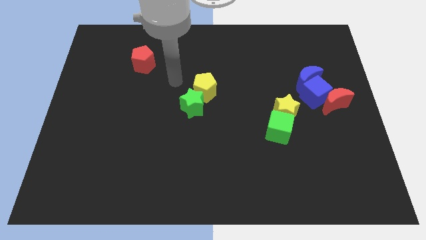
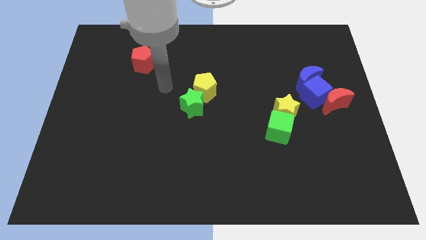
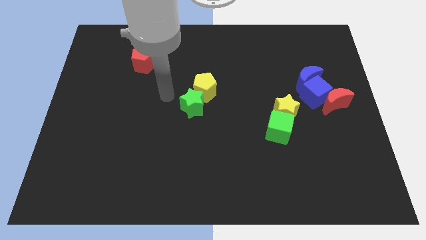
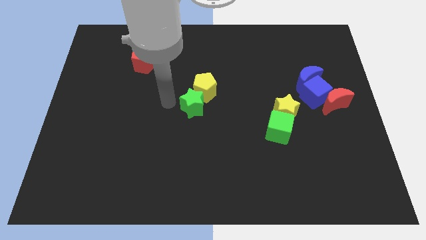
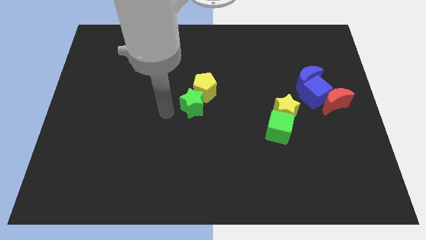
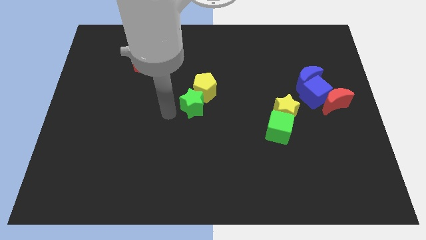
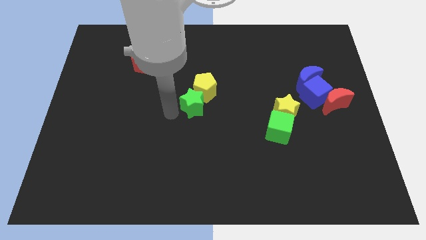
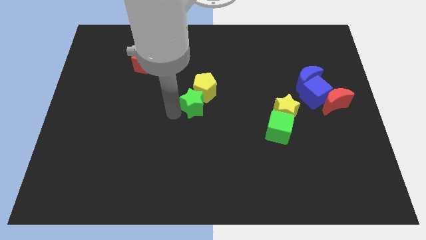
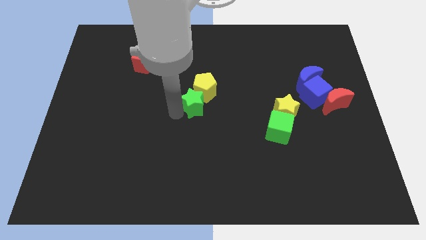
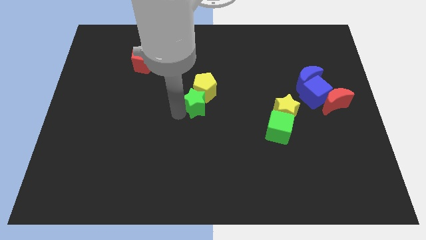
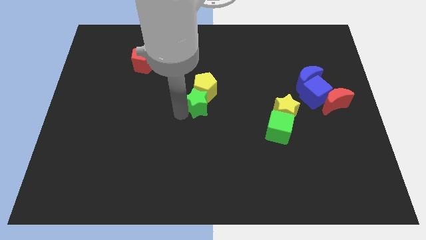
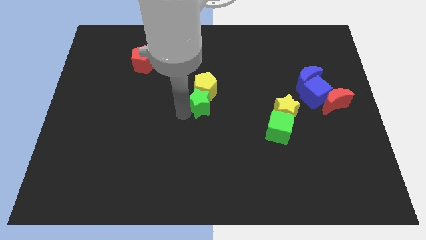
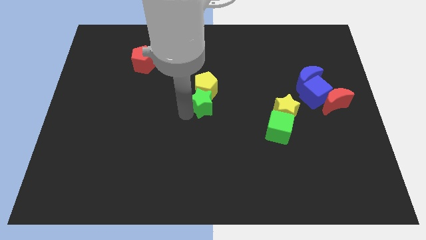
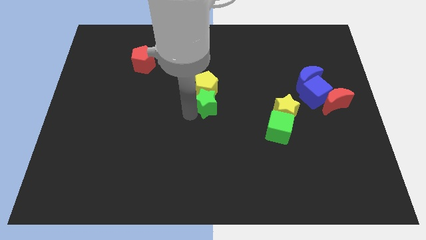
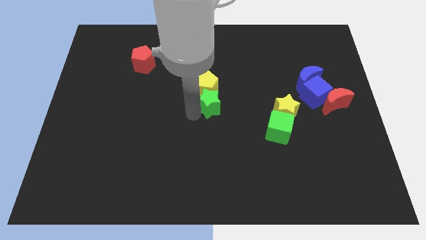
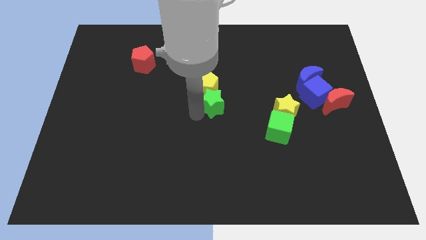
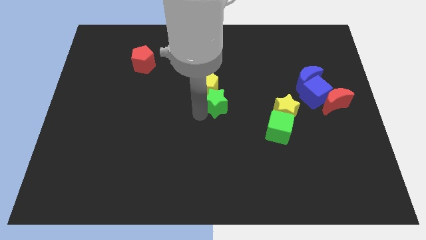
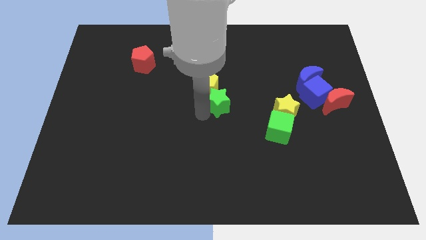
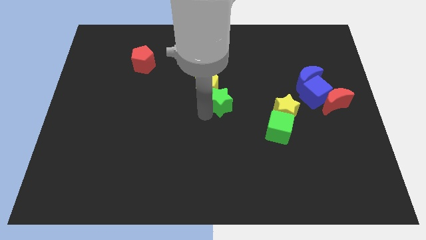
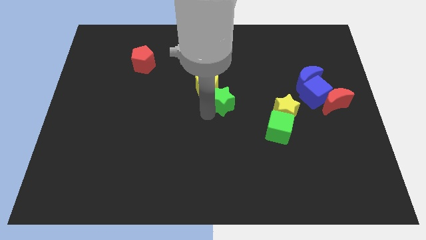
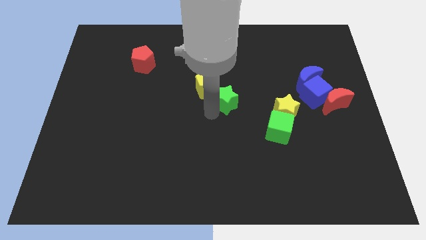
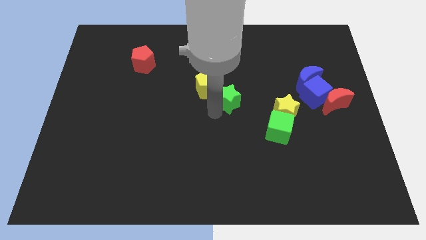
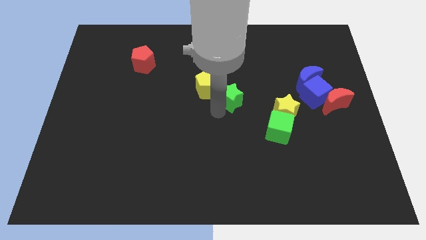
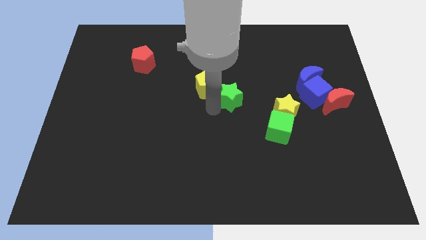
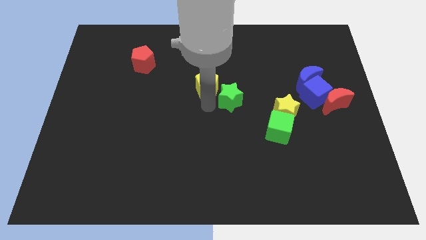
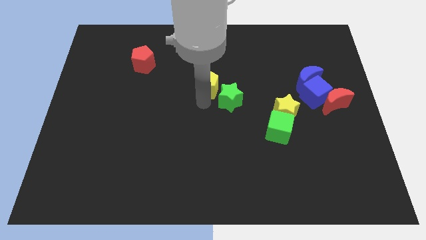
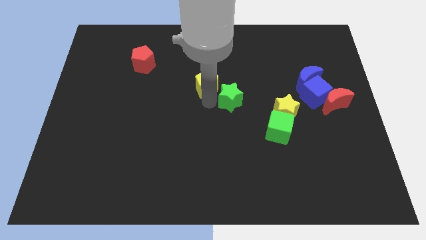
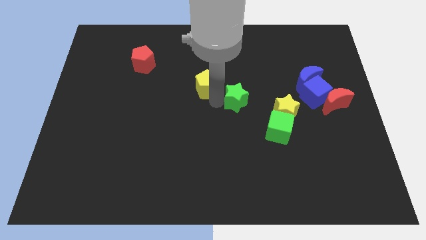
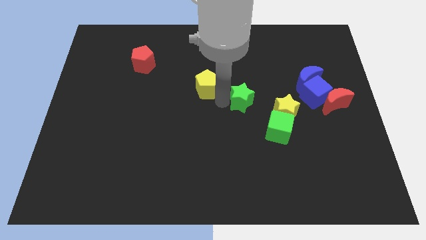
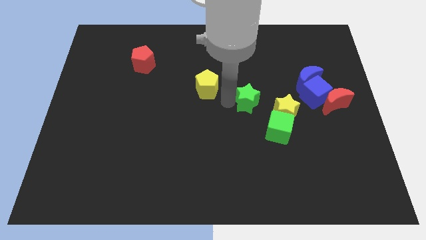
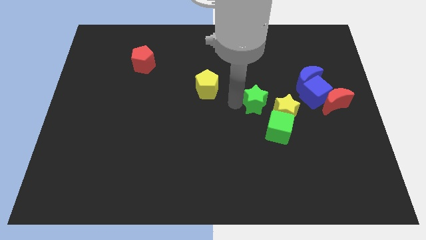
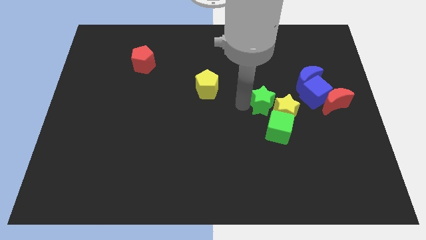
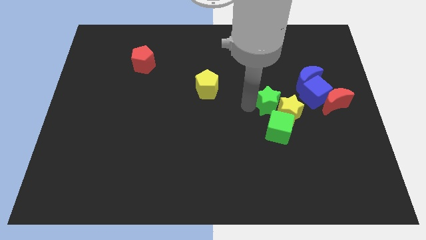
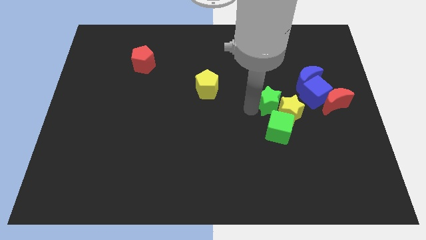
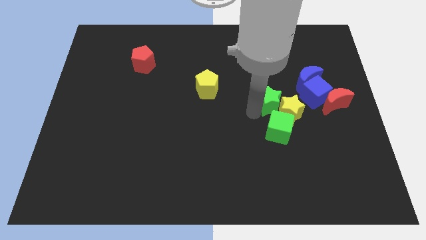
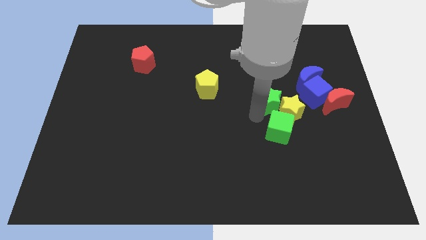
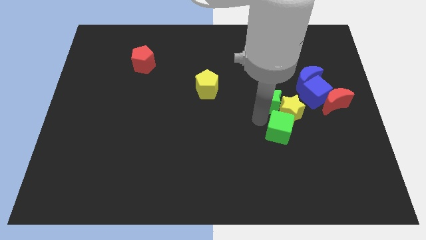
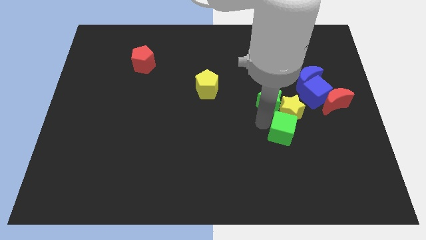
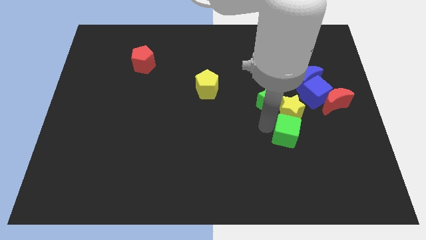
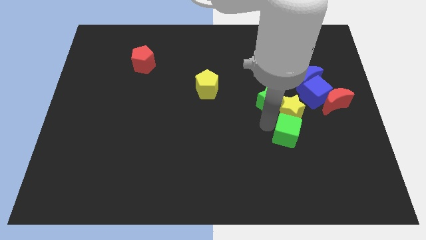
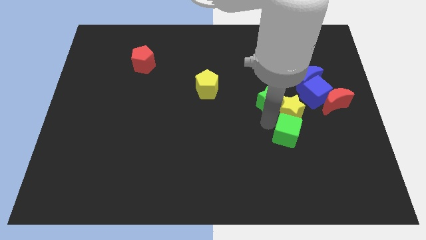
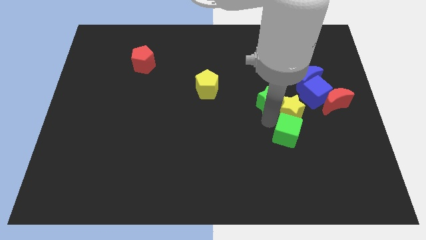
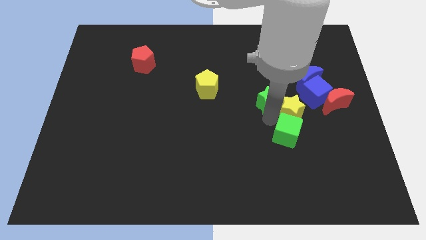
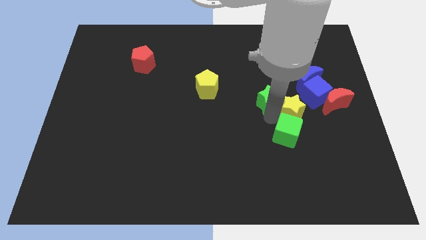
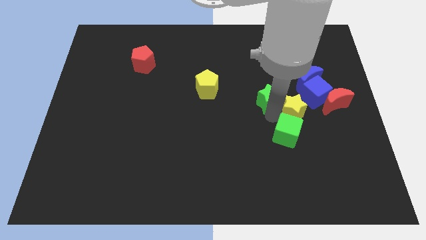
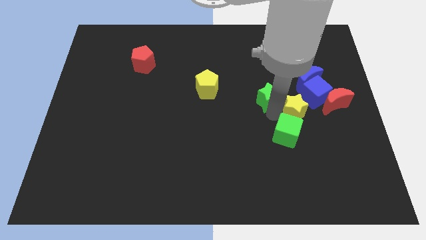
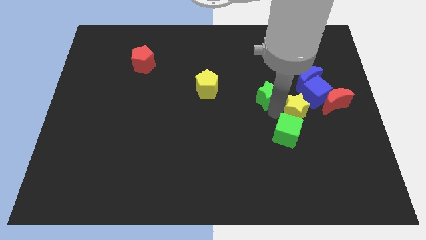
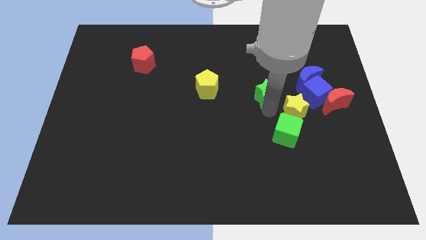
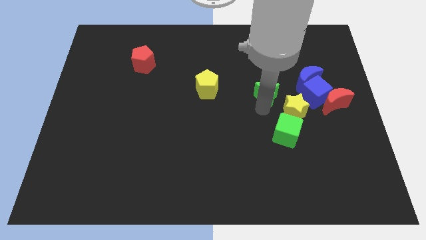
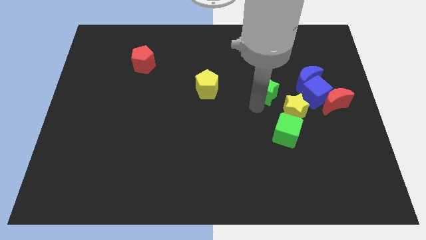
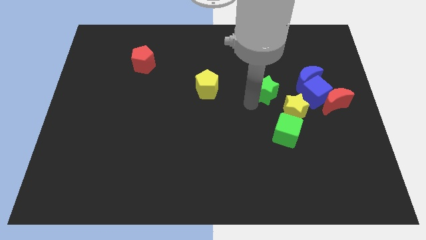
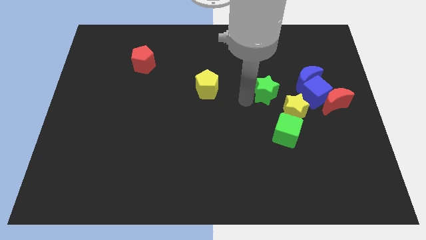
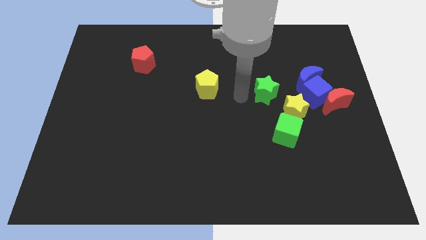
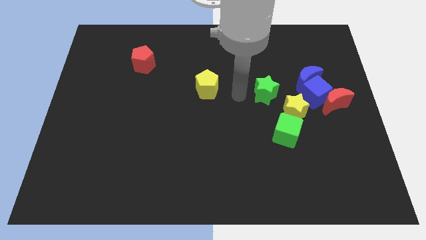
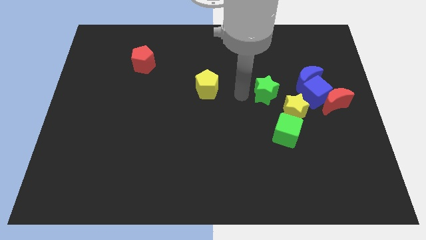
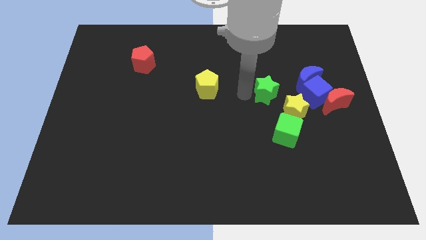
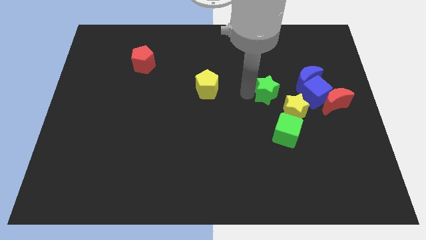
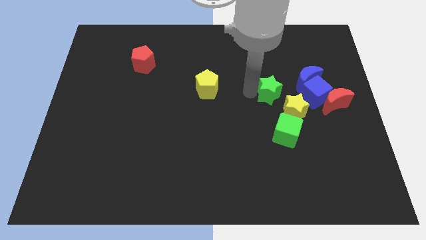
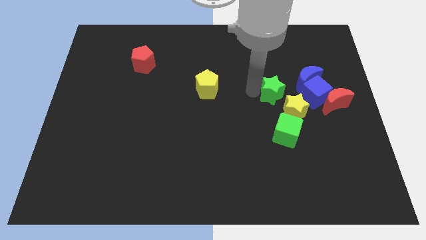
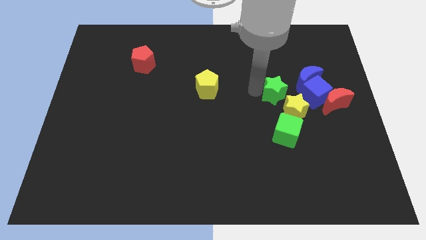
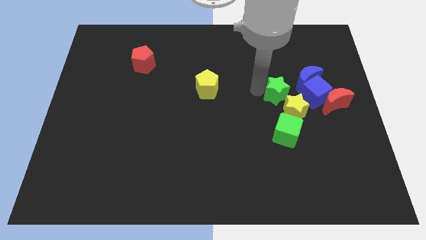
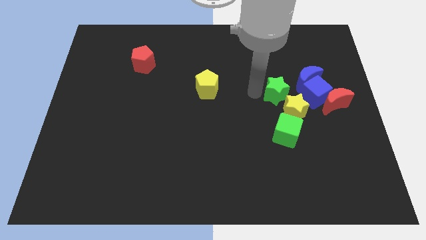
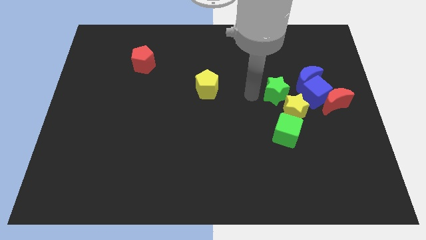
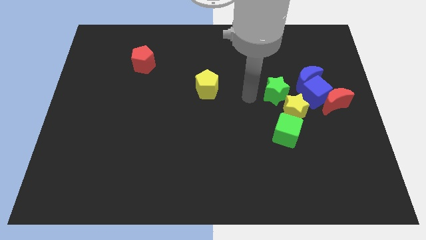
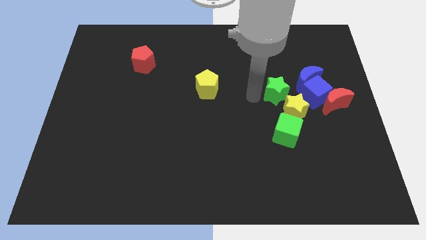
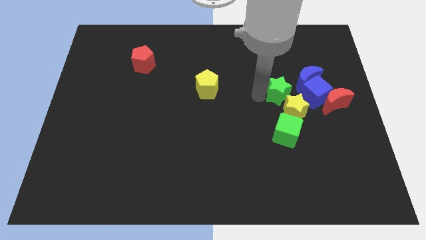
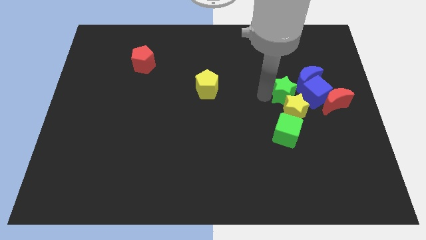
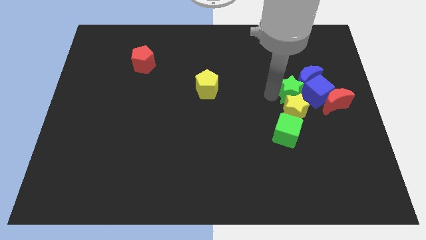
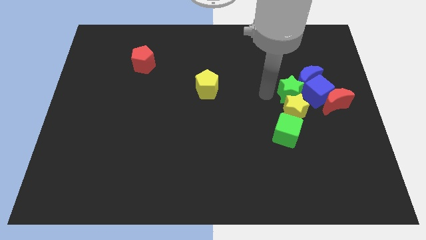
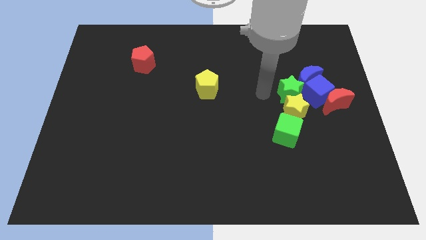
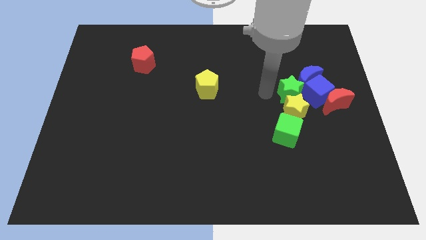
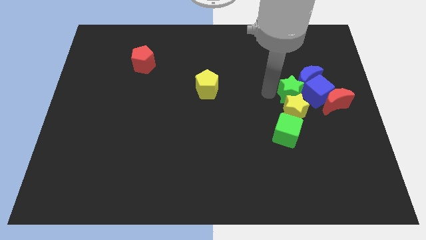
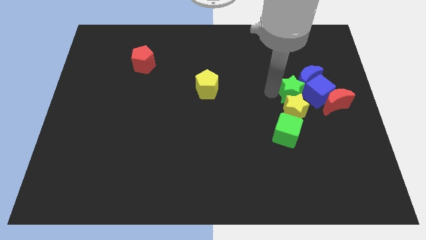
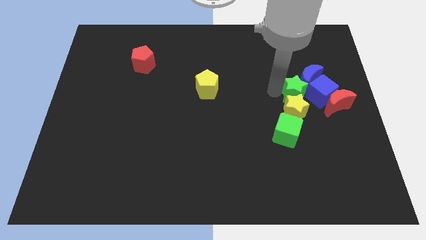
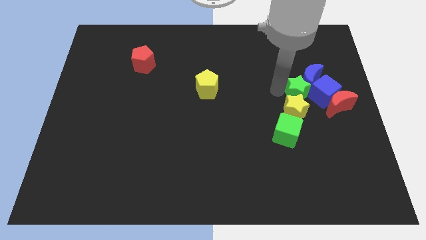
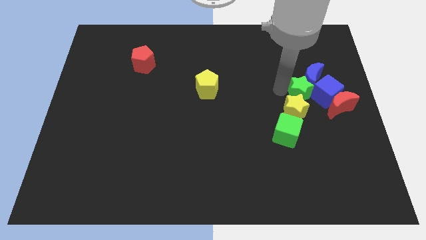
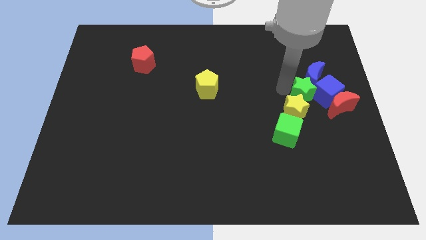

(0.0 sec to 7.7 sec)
slide the green star to the blue cube
